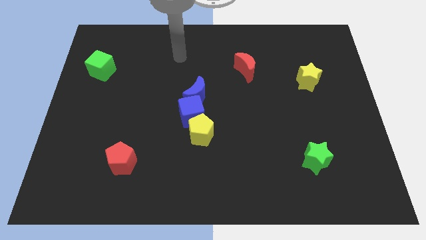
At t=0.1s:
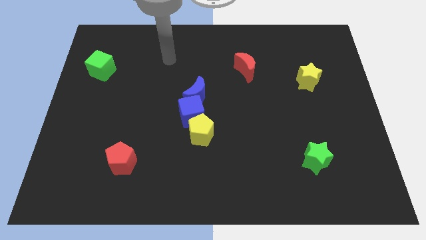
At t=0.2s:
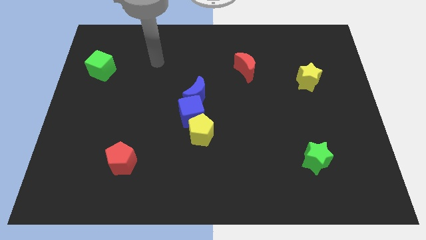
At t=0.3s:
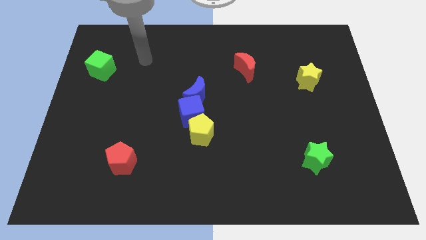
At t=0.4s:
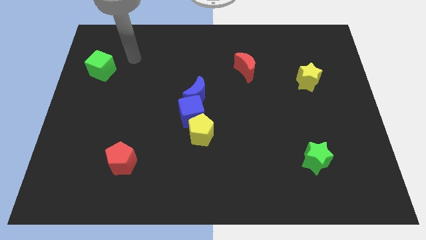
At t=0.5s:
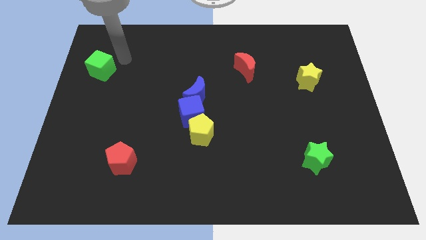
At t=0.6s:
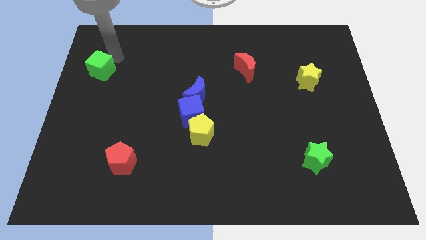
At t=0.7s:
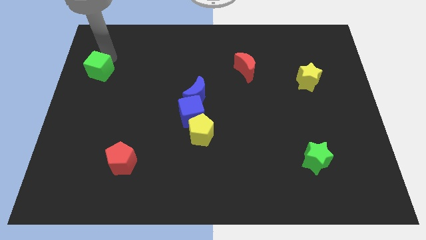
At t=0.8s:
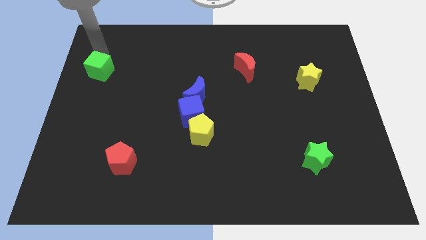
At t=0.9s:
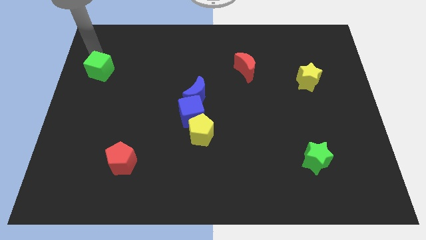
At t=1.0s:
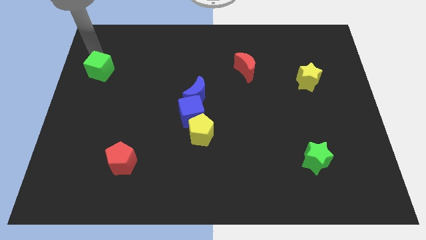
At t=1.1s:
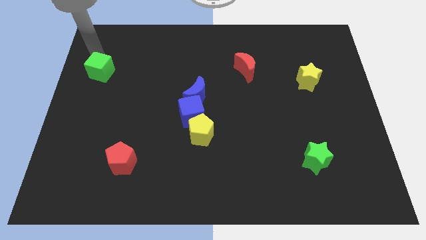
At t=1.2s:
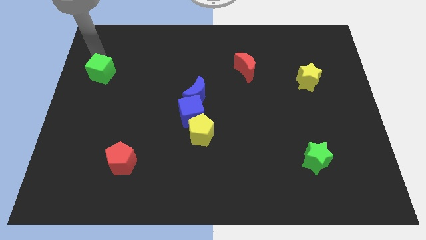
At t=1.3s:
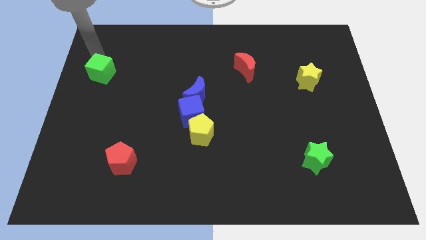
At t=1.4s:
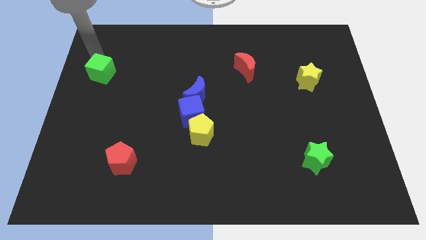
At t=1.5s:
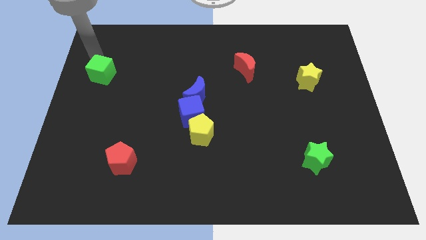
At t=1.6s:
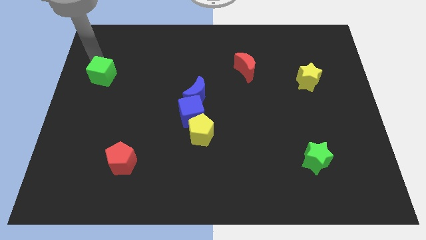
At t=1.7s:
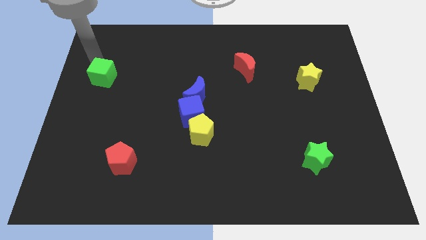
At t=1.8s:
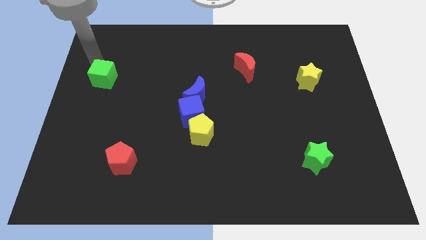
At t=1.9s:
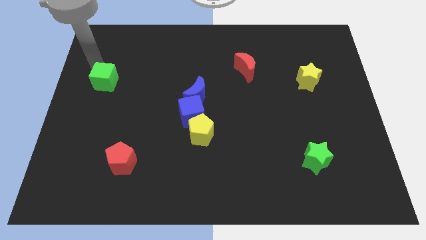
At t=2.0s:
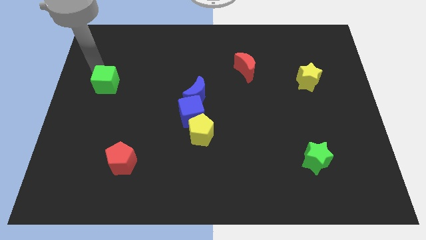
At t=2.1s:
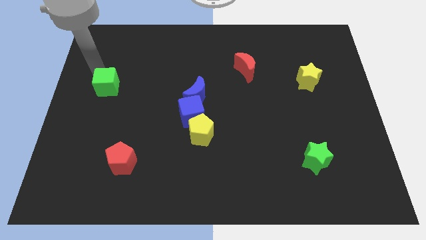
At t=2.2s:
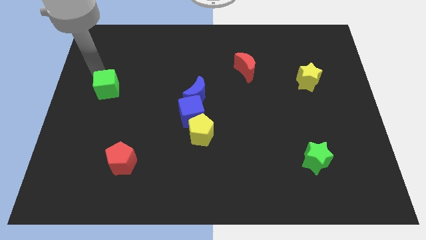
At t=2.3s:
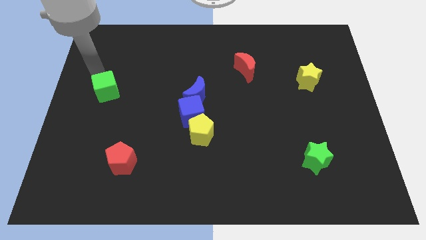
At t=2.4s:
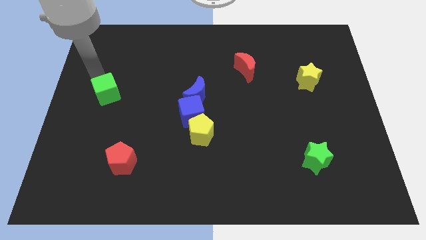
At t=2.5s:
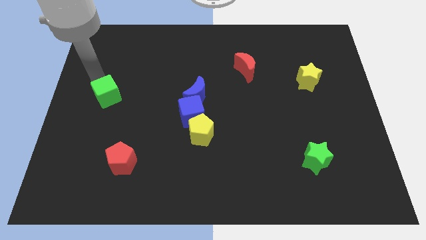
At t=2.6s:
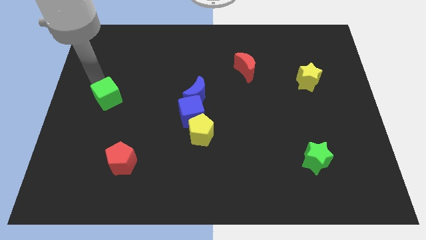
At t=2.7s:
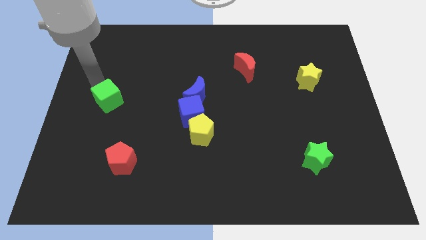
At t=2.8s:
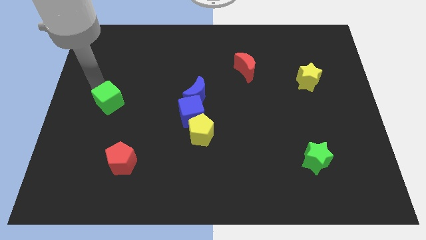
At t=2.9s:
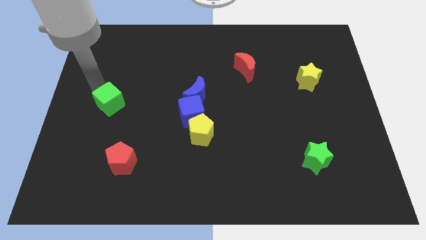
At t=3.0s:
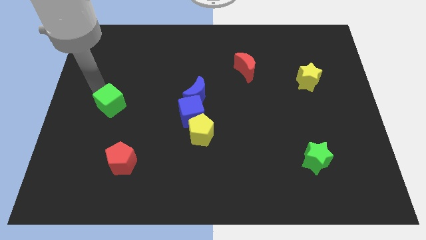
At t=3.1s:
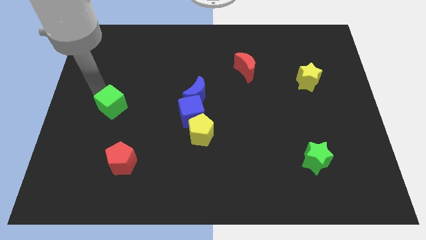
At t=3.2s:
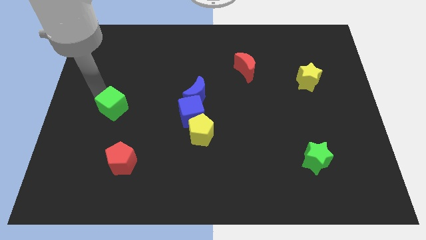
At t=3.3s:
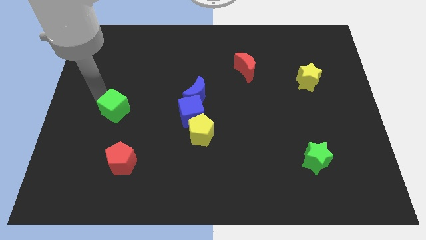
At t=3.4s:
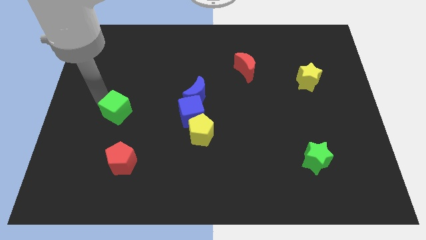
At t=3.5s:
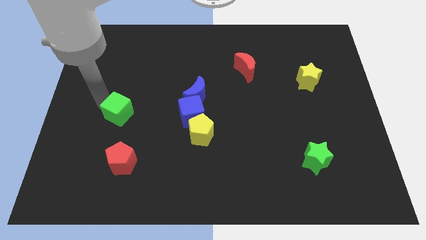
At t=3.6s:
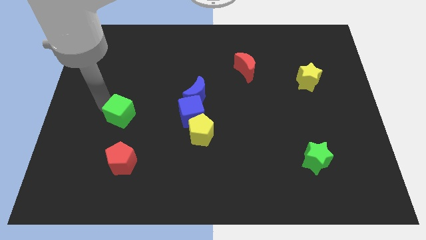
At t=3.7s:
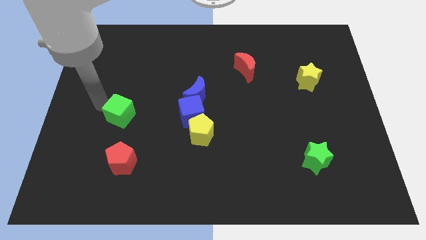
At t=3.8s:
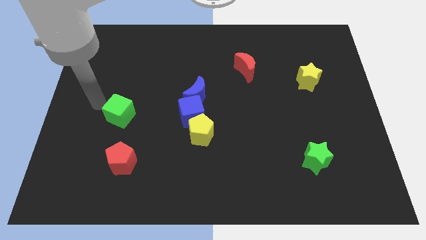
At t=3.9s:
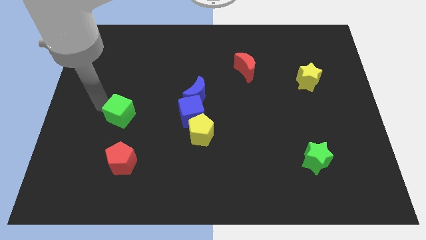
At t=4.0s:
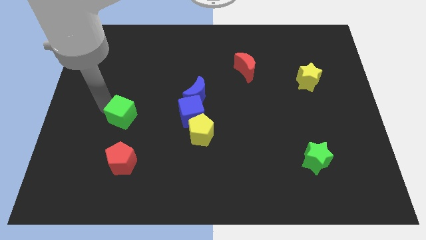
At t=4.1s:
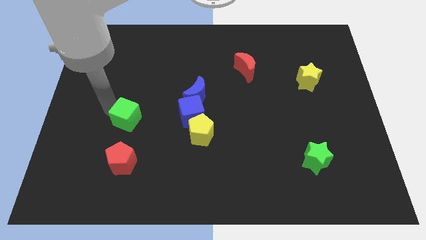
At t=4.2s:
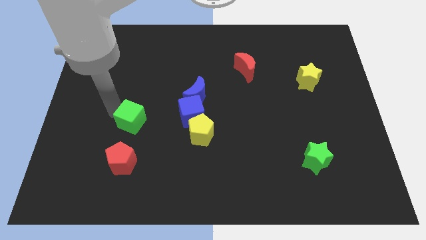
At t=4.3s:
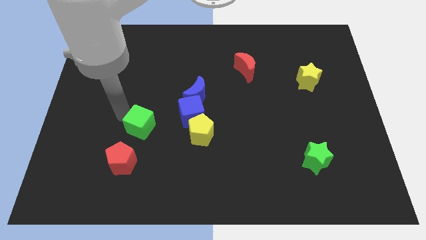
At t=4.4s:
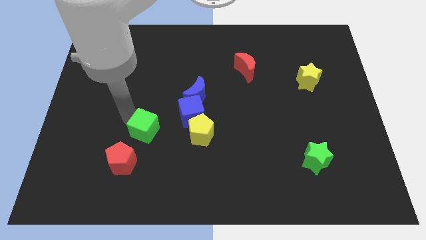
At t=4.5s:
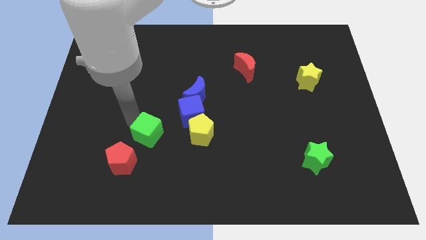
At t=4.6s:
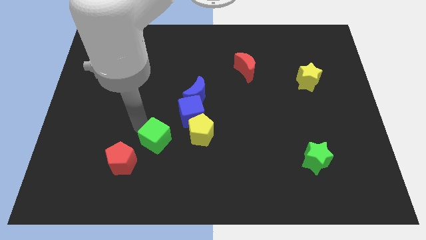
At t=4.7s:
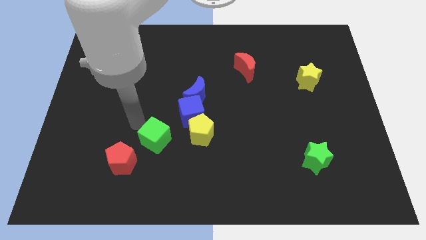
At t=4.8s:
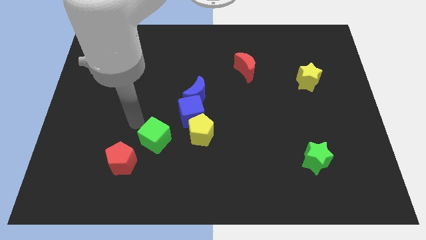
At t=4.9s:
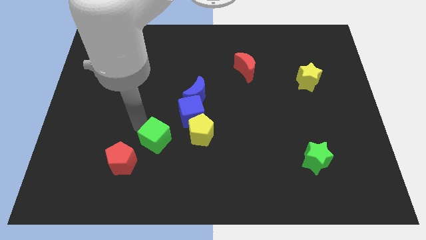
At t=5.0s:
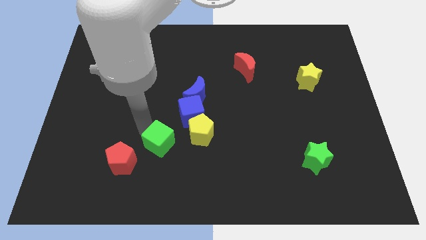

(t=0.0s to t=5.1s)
slide the green cube diagonally down and to the left of the yellow pentagon

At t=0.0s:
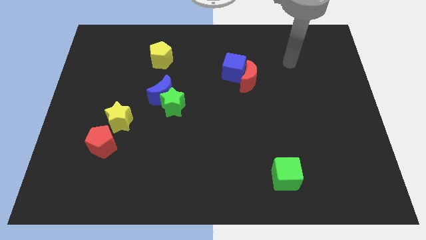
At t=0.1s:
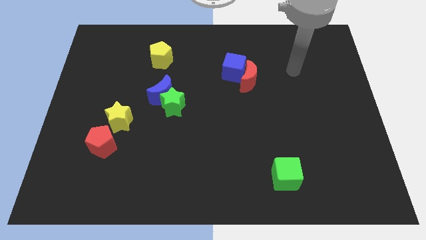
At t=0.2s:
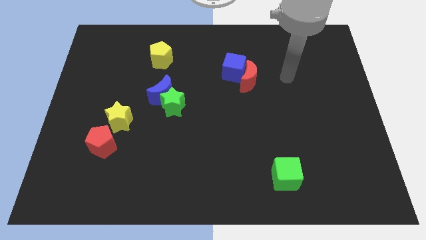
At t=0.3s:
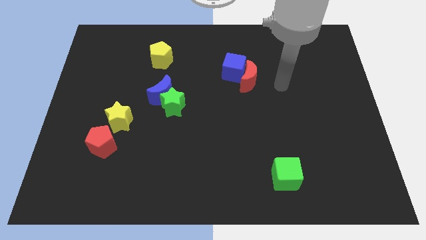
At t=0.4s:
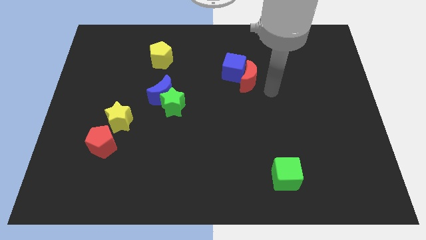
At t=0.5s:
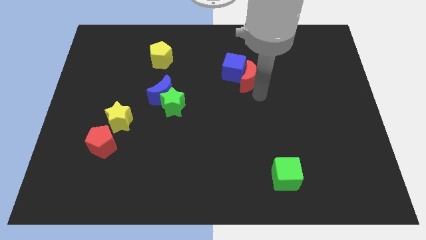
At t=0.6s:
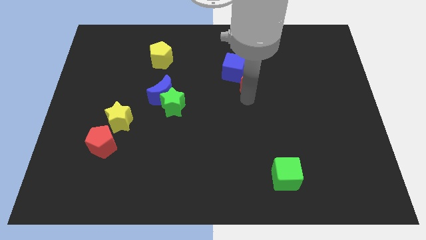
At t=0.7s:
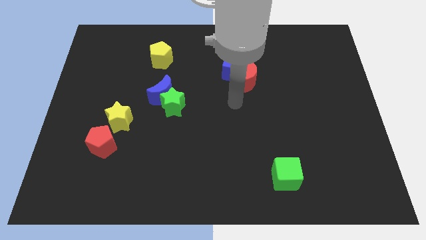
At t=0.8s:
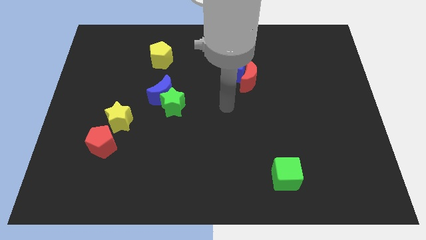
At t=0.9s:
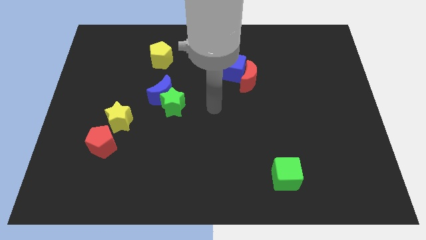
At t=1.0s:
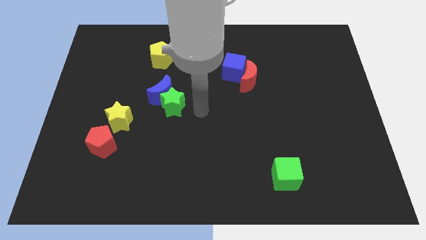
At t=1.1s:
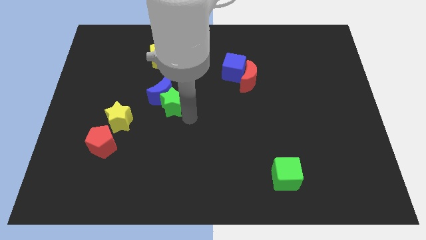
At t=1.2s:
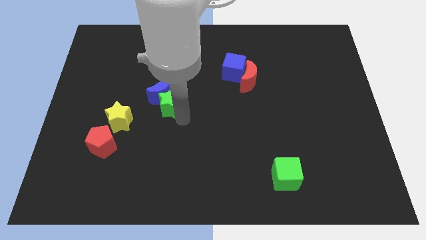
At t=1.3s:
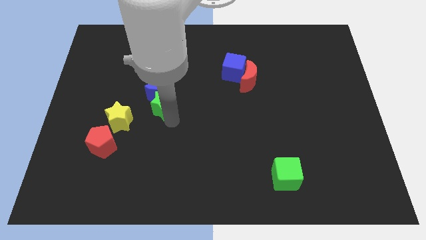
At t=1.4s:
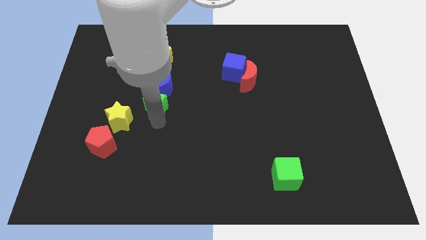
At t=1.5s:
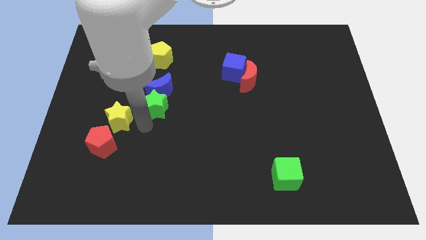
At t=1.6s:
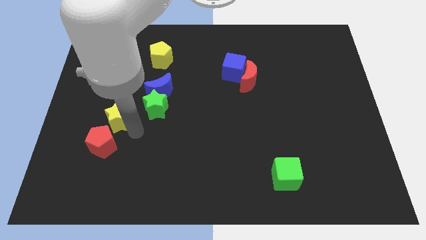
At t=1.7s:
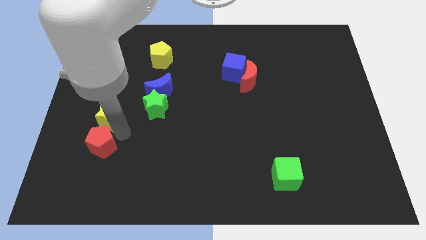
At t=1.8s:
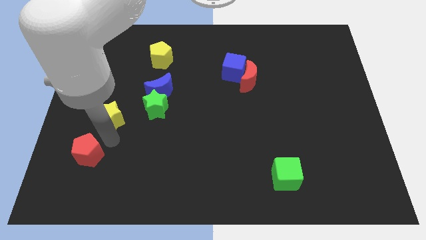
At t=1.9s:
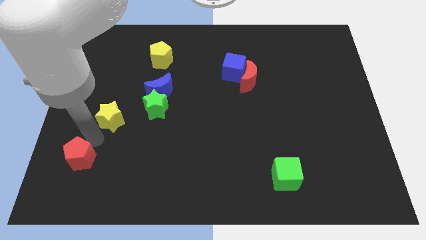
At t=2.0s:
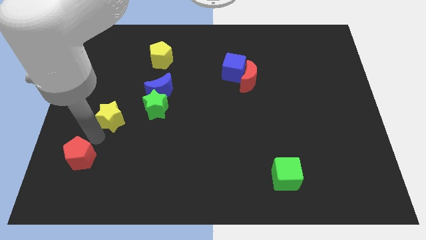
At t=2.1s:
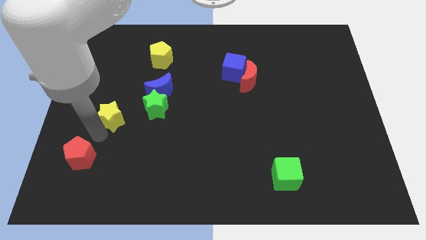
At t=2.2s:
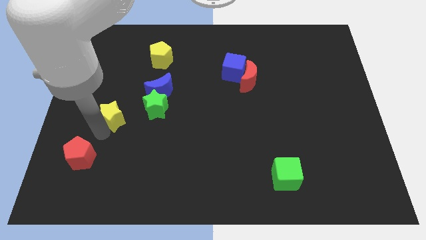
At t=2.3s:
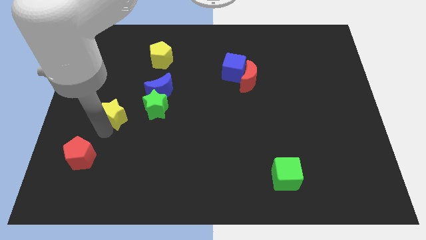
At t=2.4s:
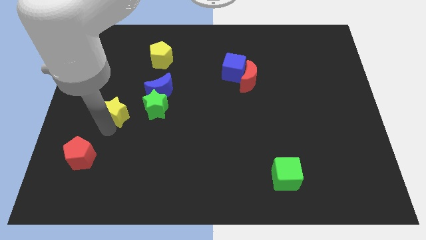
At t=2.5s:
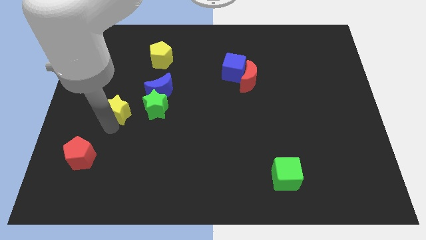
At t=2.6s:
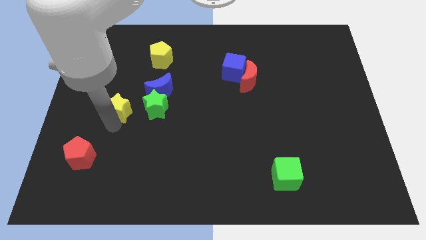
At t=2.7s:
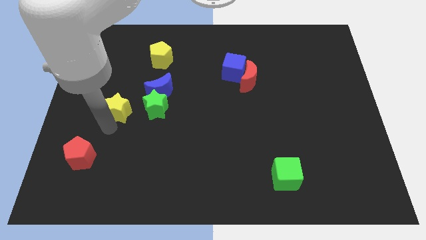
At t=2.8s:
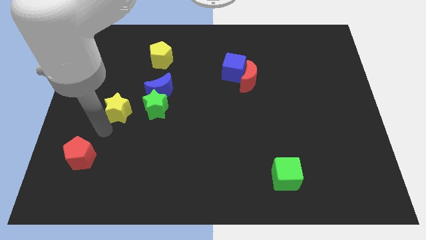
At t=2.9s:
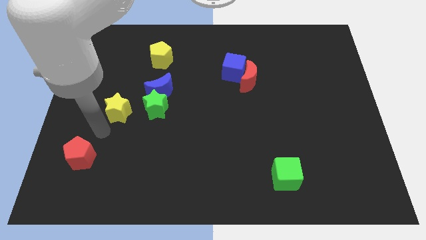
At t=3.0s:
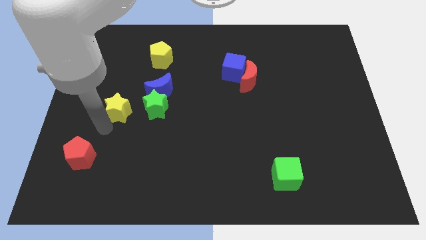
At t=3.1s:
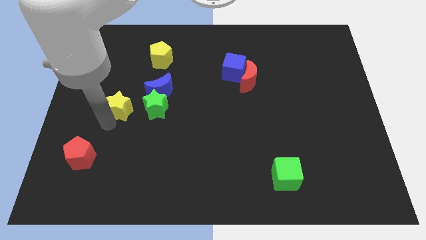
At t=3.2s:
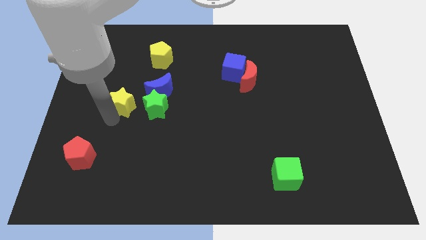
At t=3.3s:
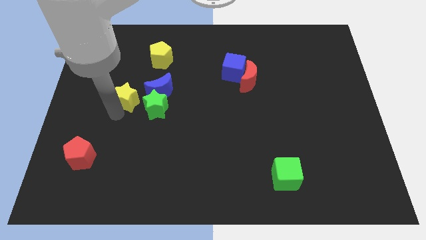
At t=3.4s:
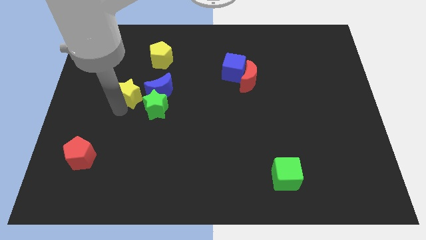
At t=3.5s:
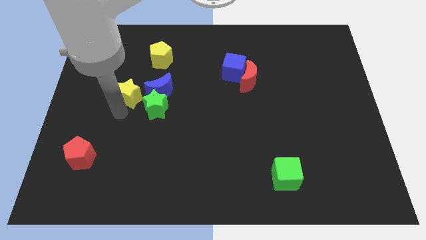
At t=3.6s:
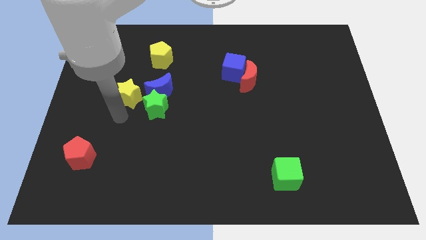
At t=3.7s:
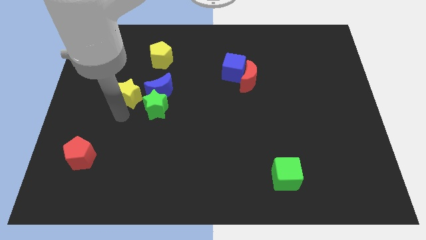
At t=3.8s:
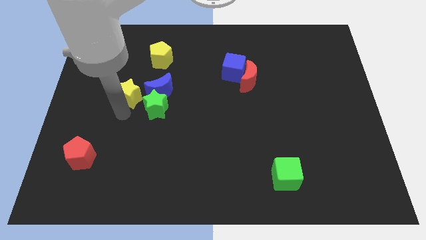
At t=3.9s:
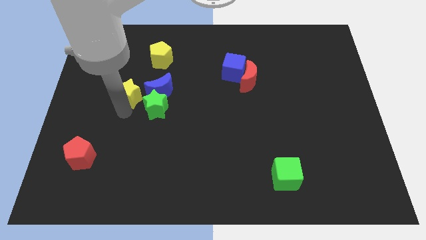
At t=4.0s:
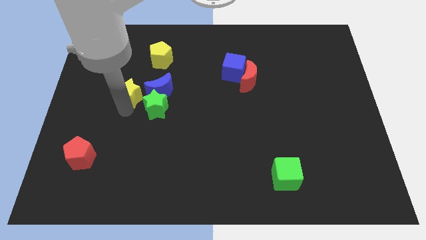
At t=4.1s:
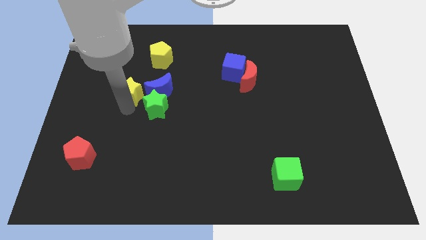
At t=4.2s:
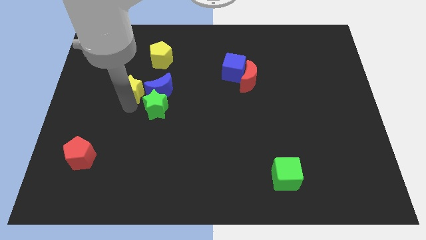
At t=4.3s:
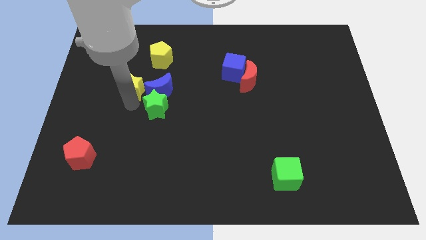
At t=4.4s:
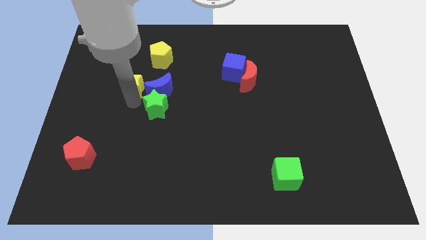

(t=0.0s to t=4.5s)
push the yellow star to the bottom left of the yellow pentagon
